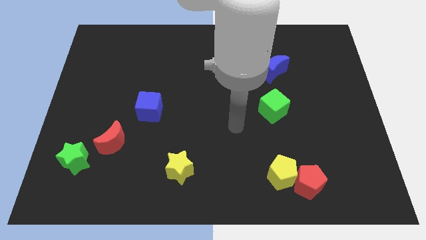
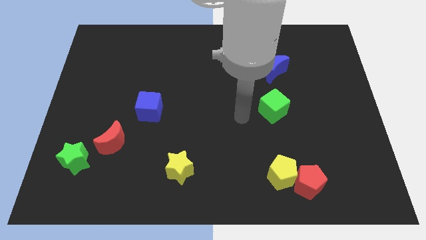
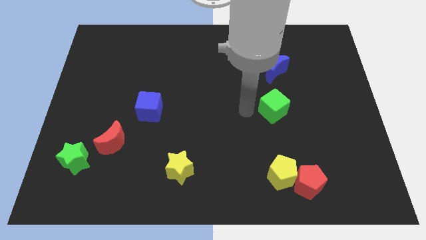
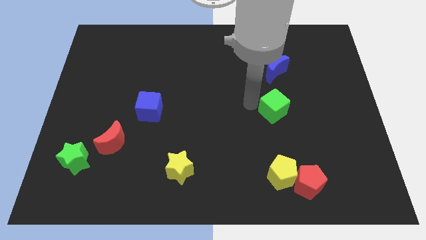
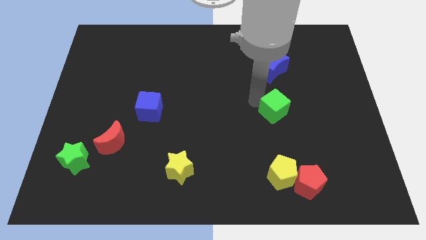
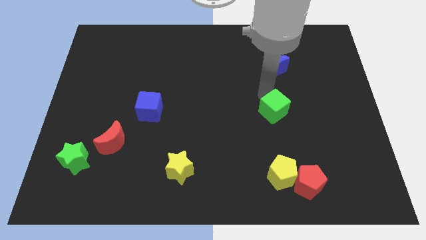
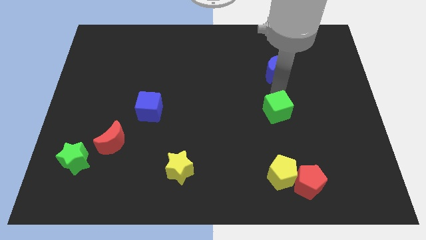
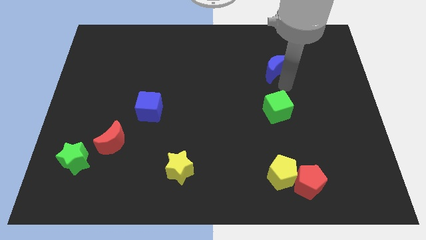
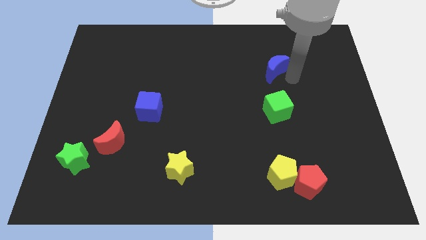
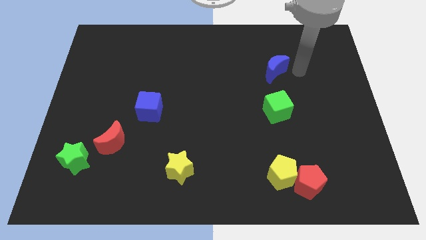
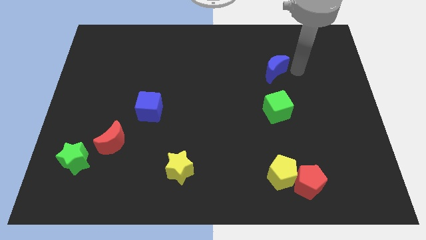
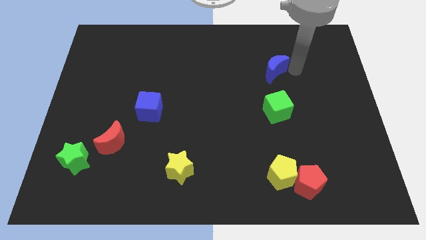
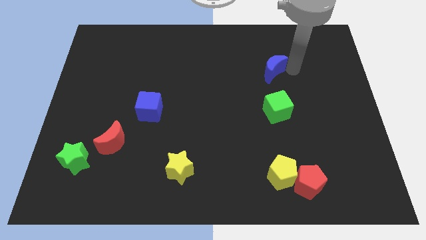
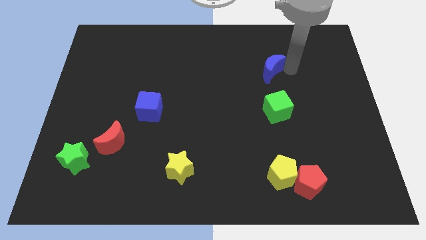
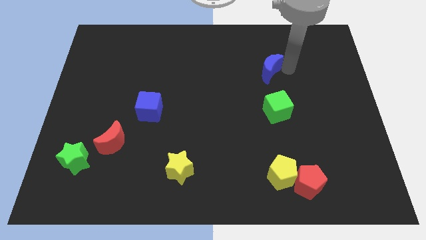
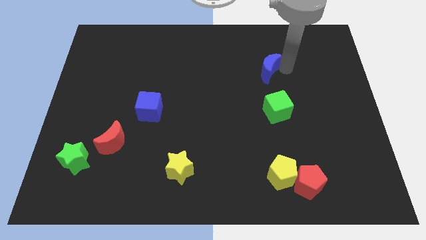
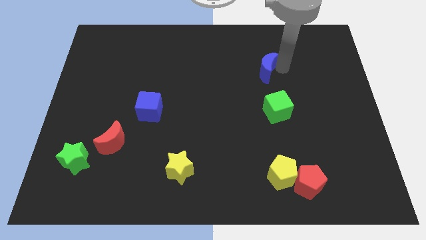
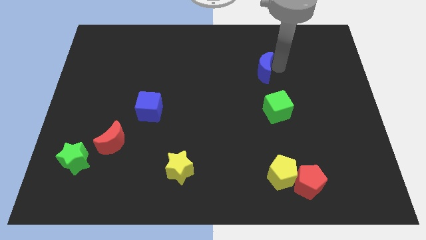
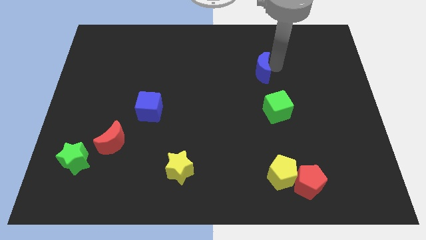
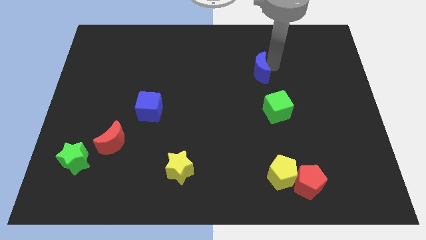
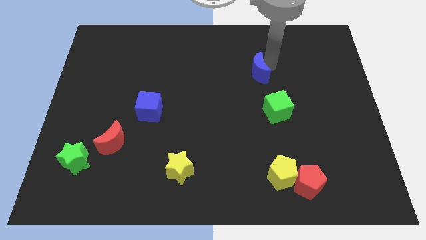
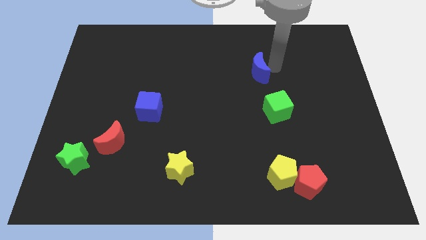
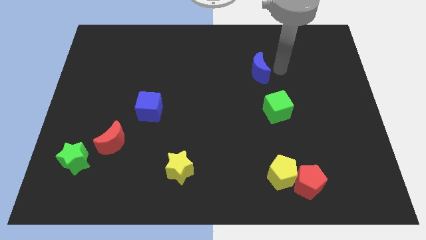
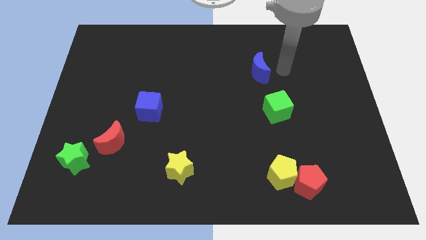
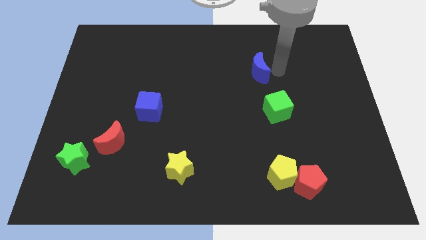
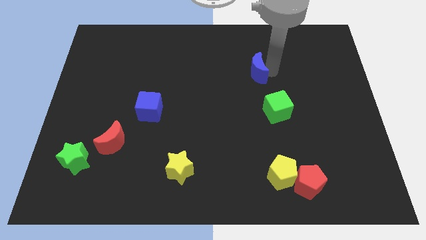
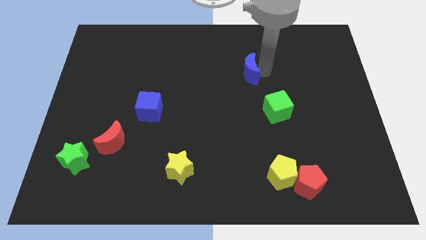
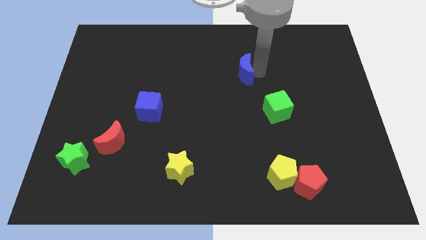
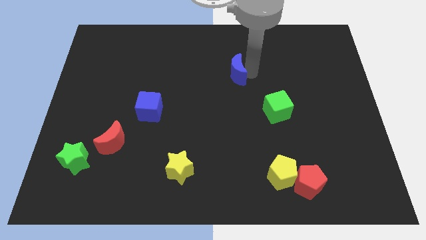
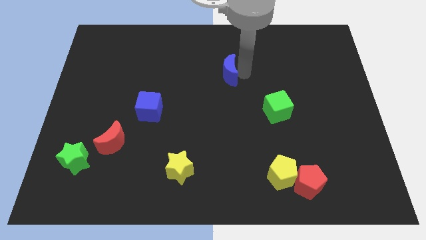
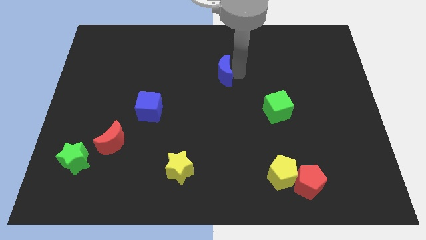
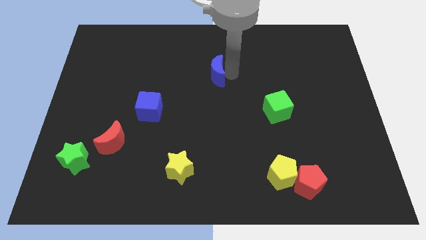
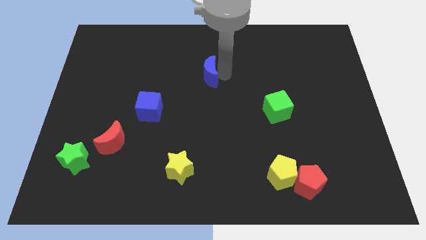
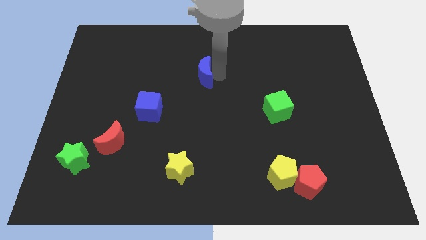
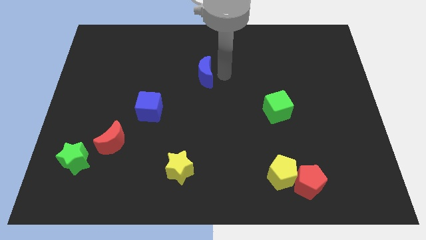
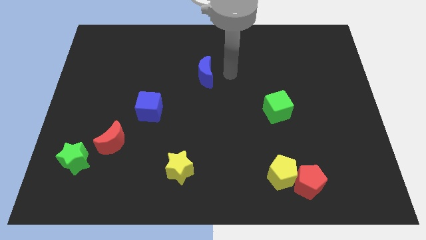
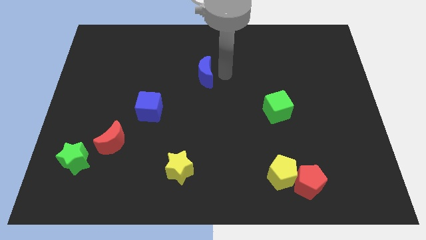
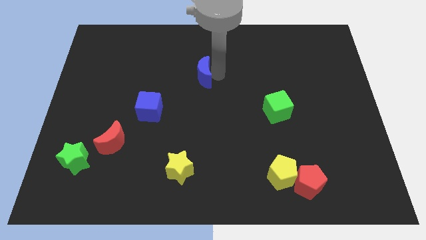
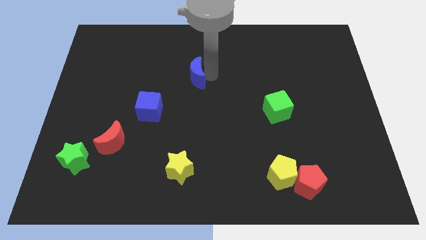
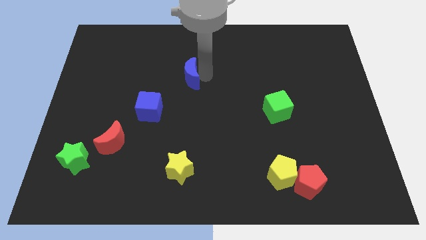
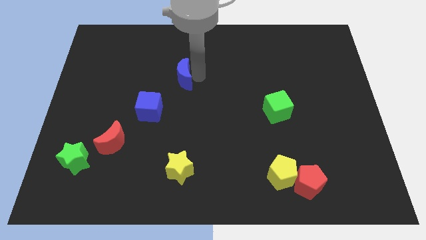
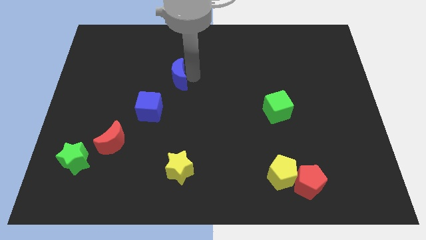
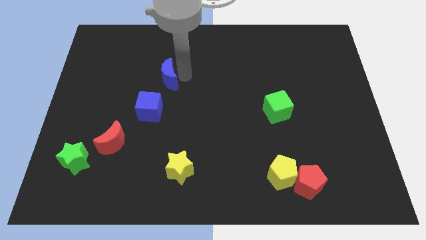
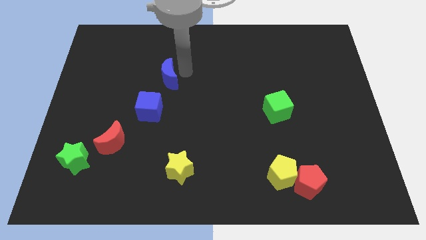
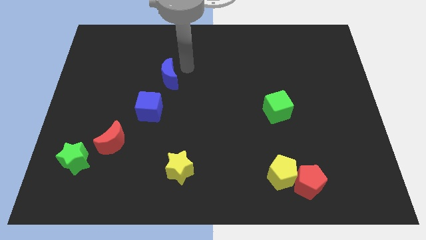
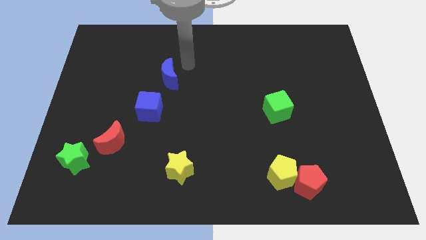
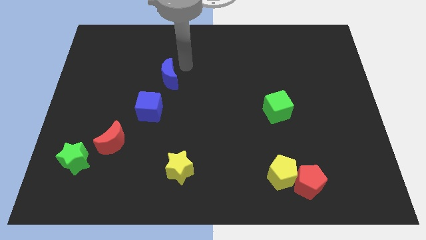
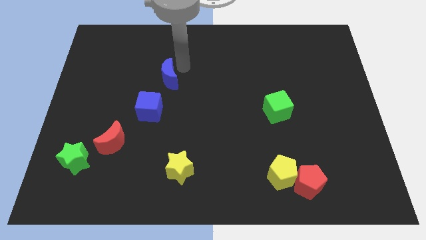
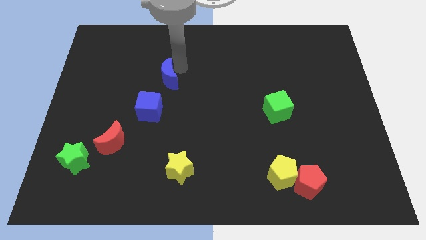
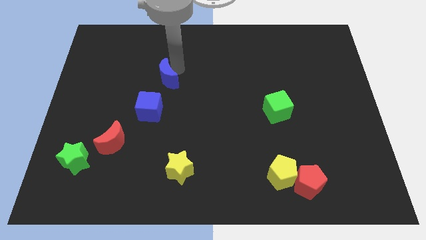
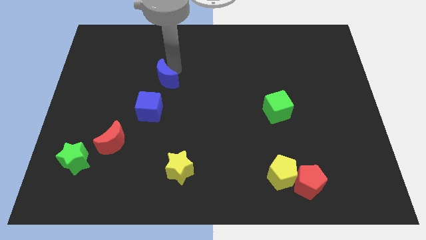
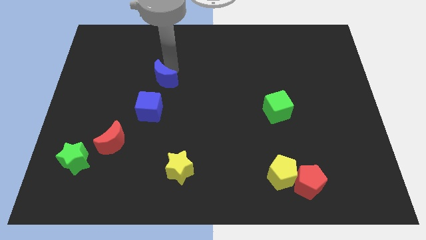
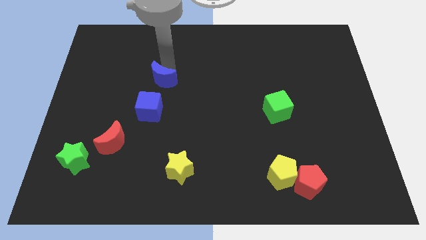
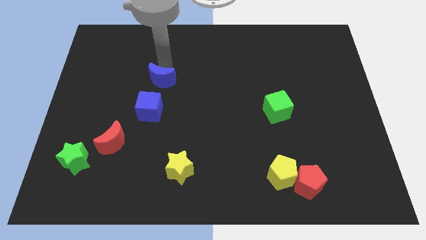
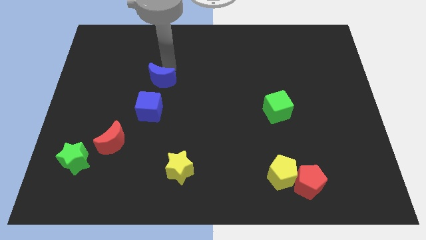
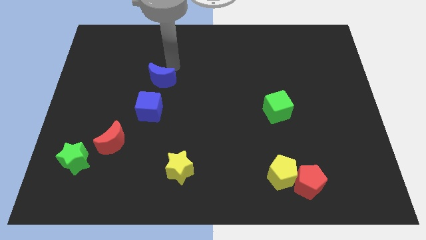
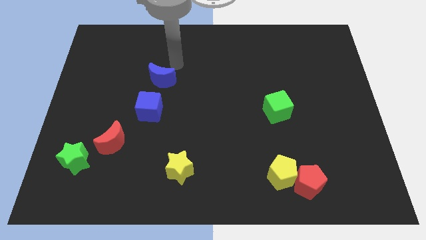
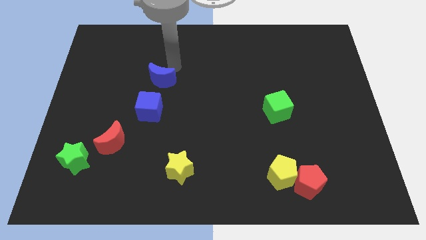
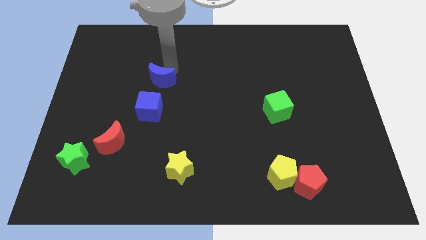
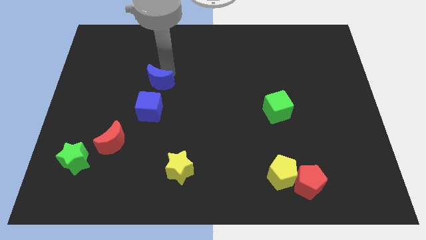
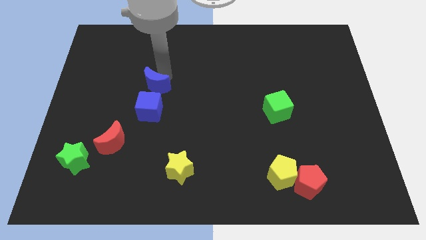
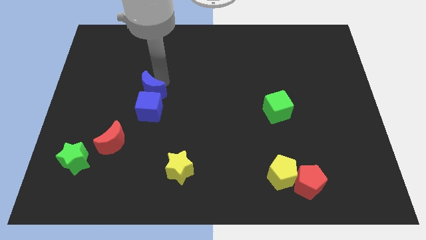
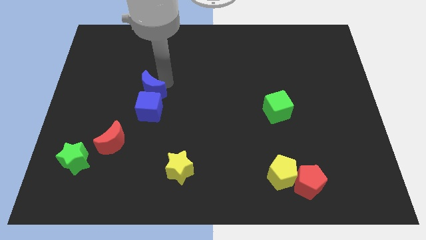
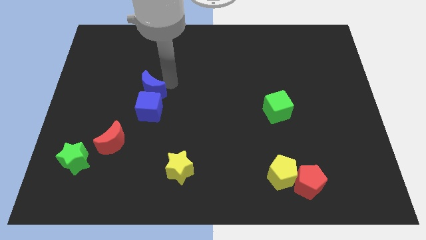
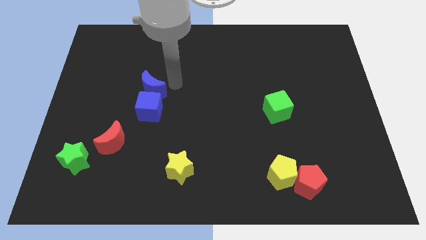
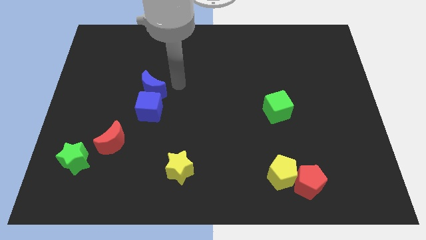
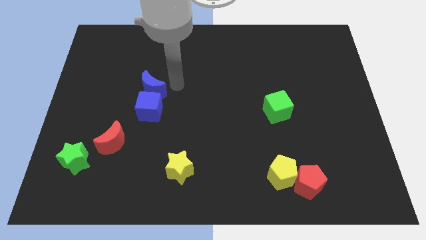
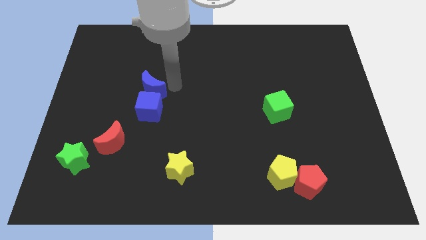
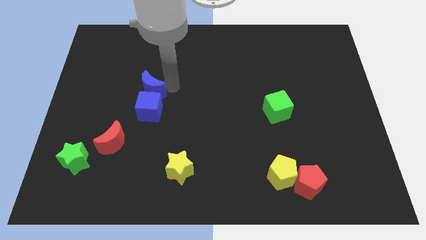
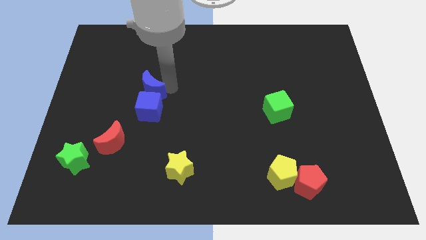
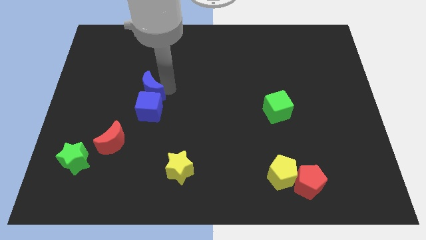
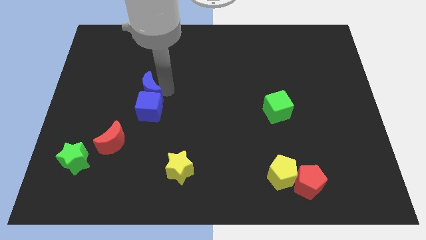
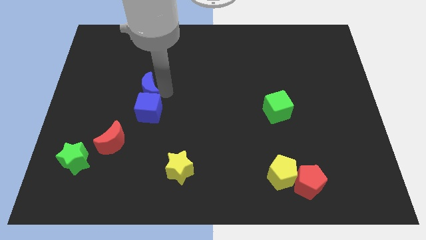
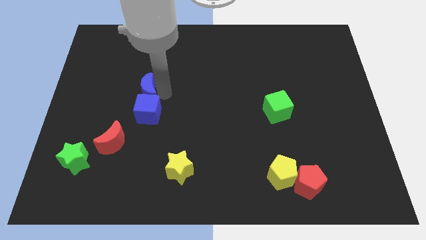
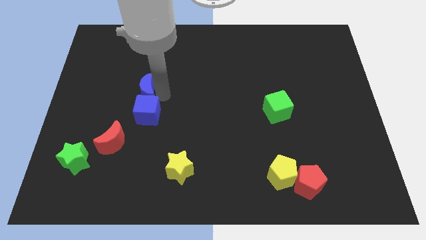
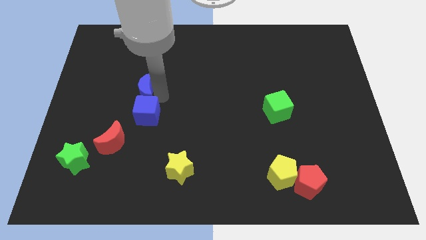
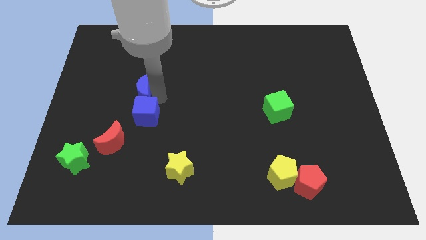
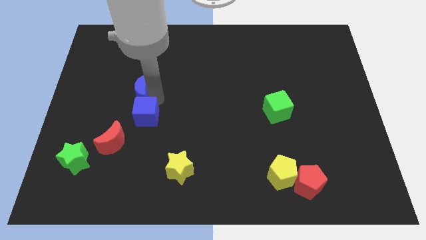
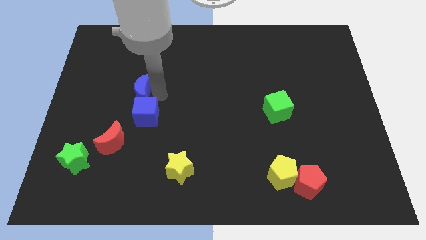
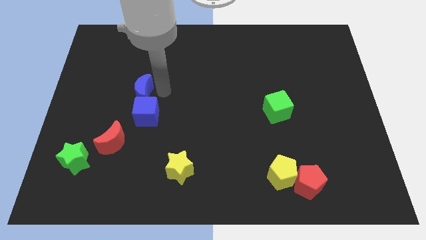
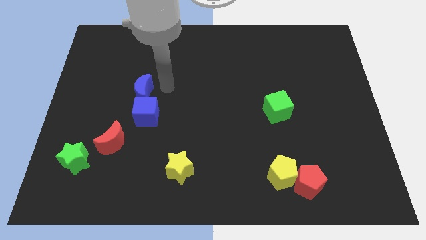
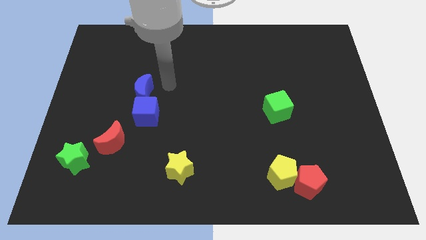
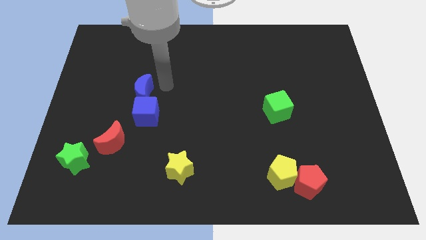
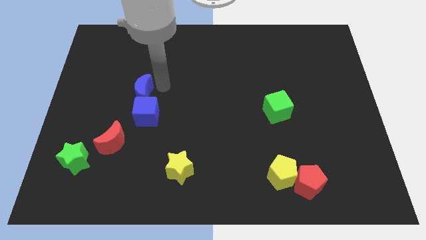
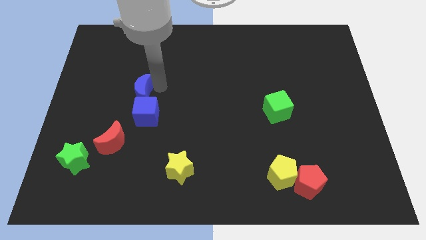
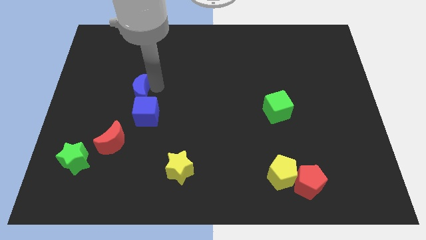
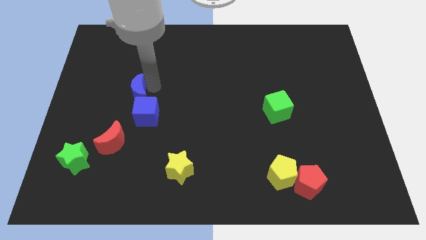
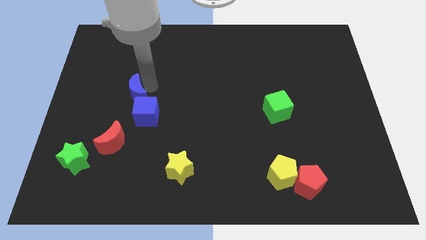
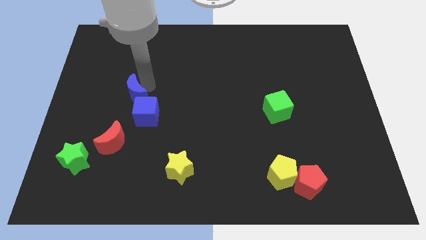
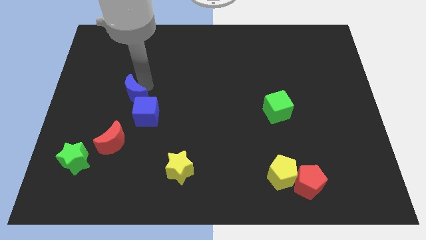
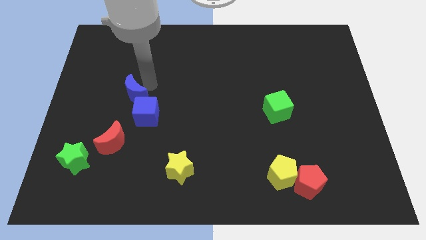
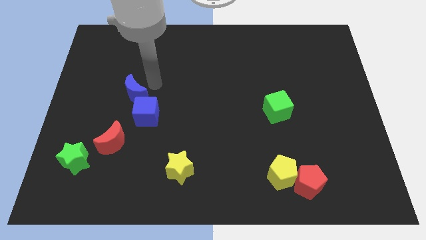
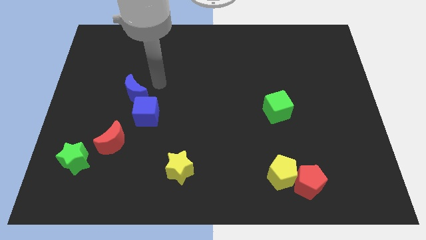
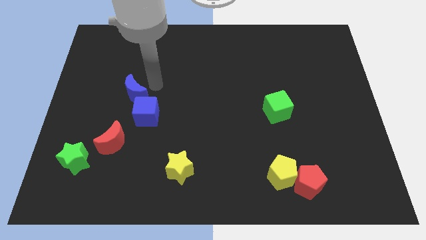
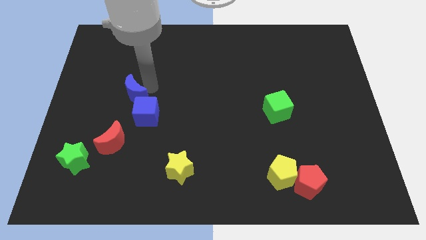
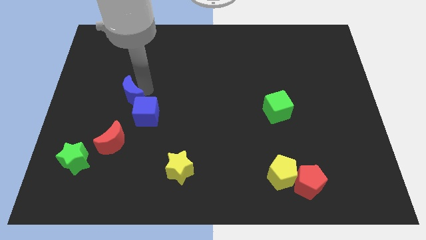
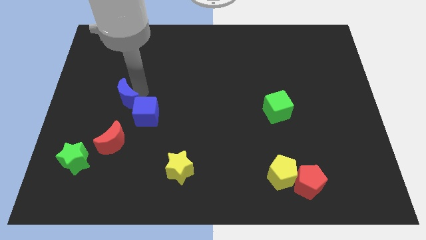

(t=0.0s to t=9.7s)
put the blue moon to the left side of the blue cube
